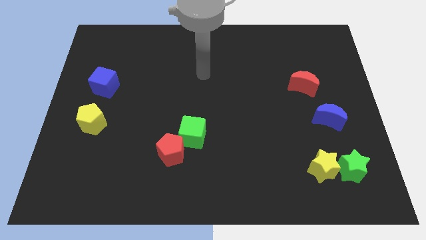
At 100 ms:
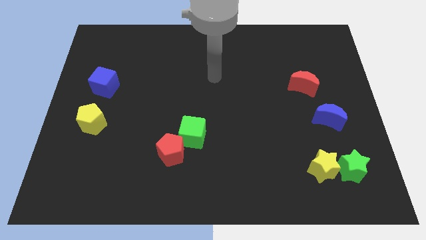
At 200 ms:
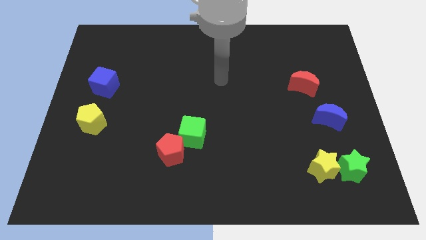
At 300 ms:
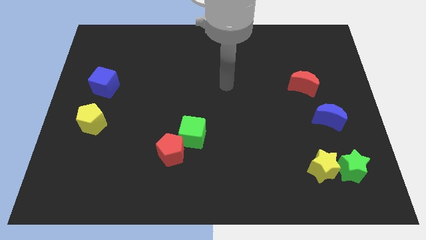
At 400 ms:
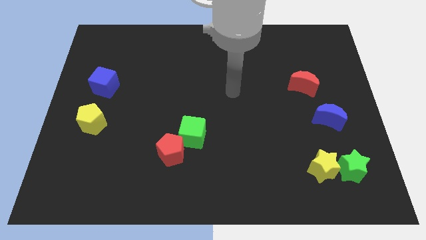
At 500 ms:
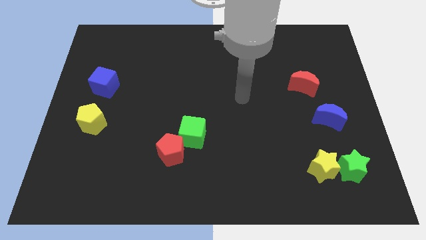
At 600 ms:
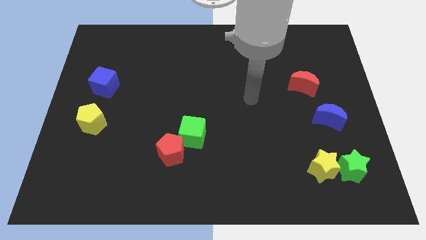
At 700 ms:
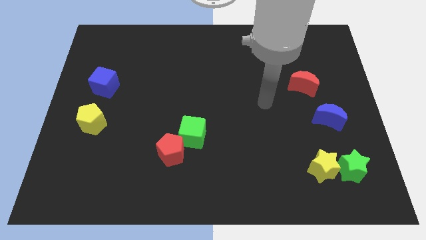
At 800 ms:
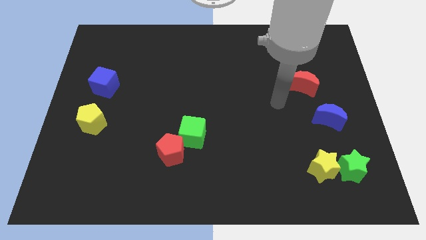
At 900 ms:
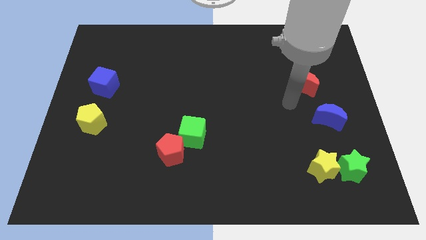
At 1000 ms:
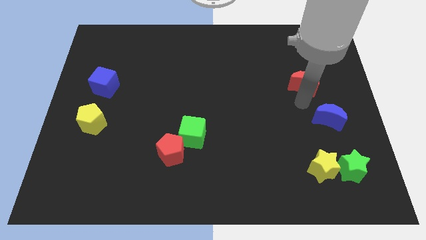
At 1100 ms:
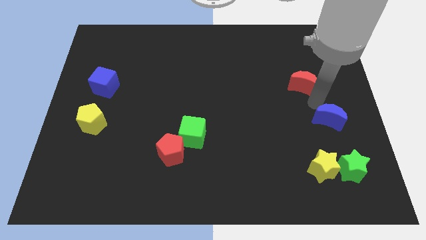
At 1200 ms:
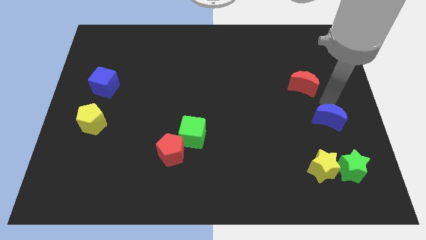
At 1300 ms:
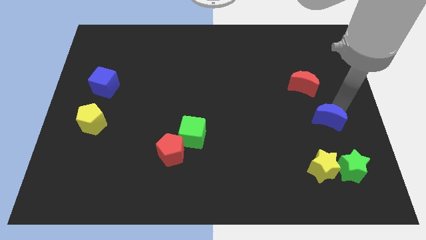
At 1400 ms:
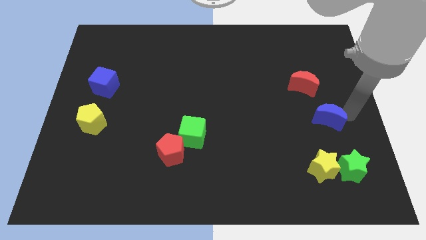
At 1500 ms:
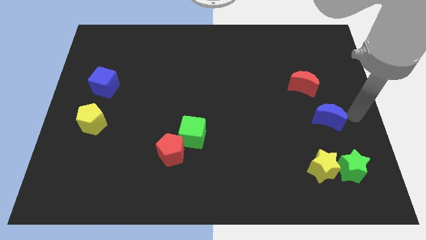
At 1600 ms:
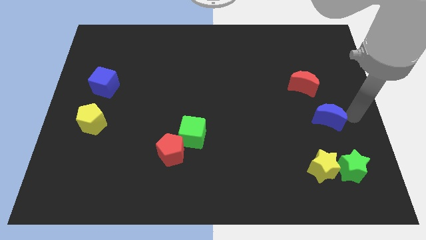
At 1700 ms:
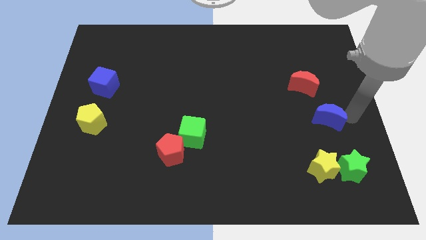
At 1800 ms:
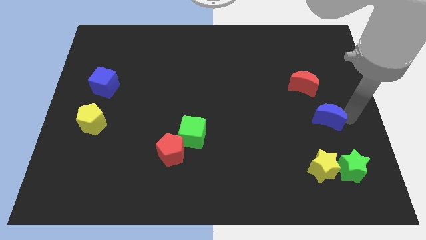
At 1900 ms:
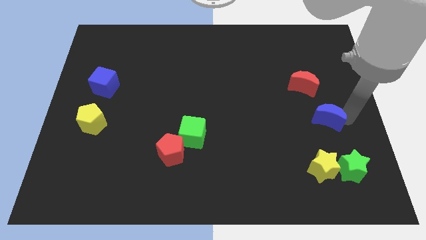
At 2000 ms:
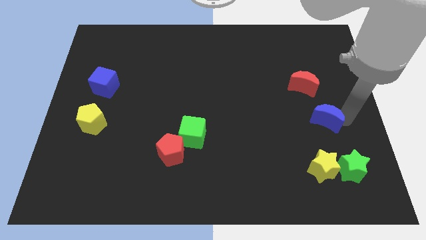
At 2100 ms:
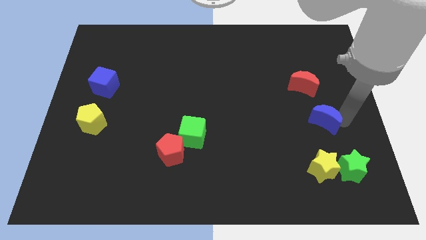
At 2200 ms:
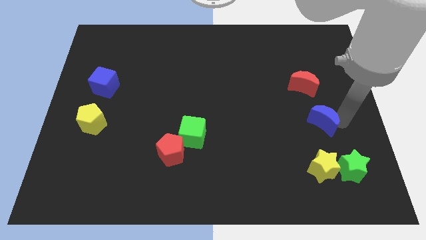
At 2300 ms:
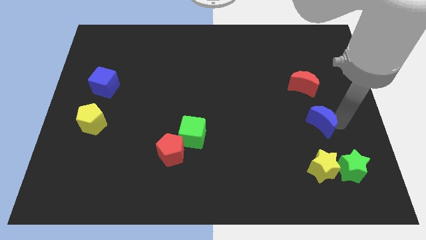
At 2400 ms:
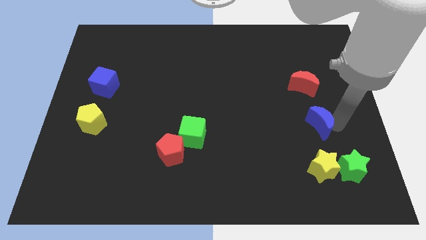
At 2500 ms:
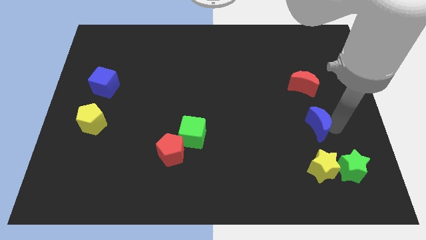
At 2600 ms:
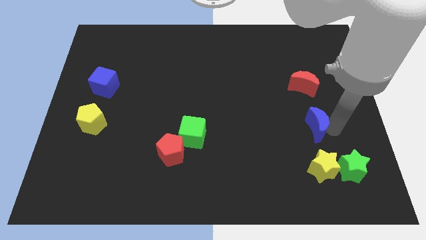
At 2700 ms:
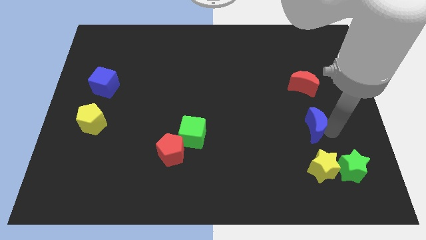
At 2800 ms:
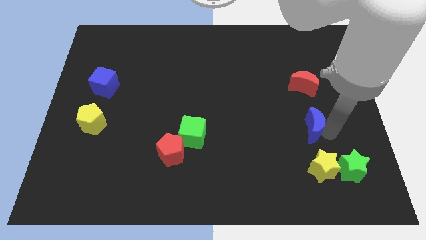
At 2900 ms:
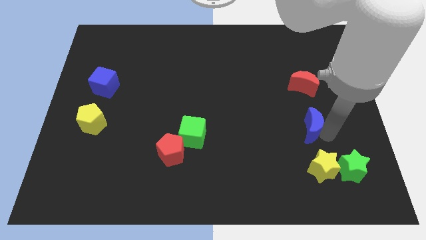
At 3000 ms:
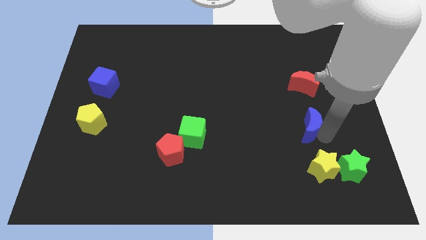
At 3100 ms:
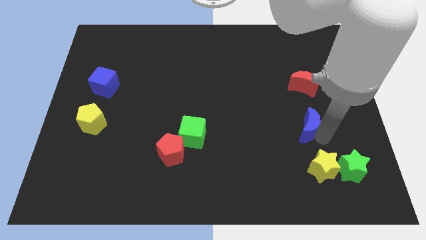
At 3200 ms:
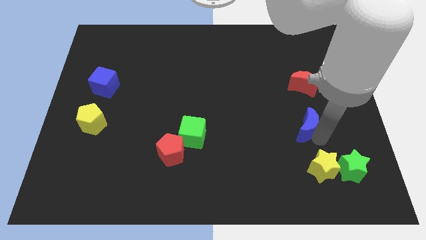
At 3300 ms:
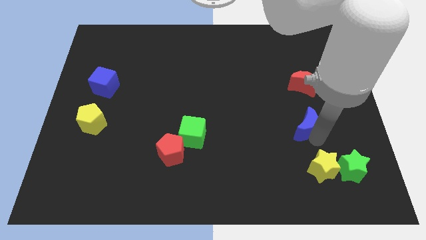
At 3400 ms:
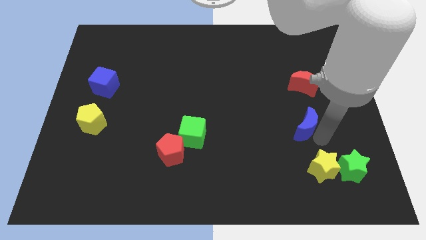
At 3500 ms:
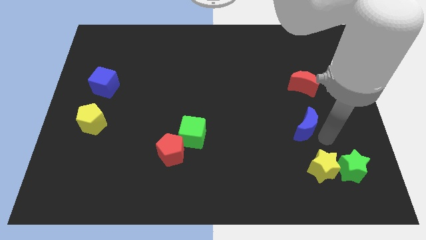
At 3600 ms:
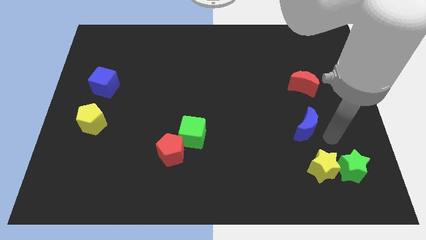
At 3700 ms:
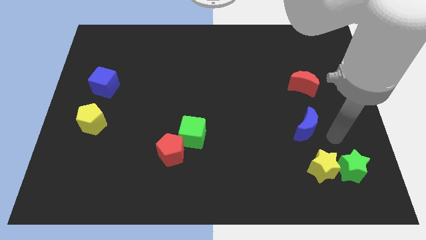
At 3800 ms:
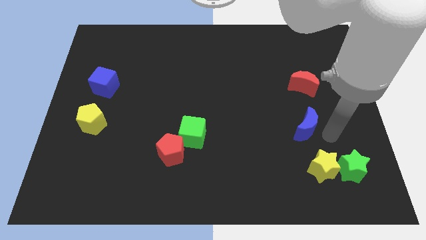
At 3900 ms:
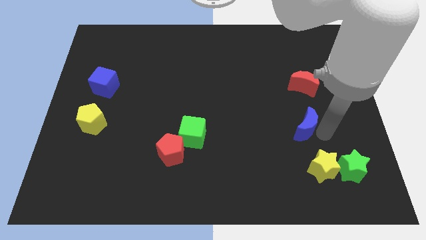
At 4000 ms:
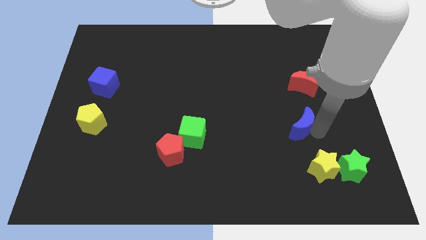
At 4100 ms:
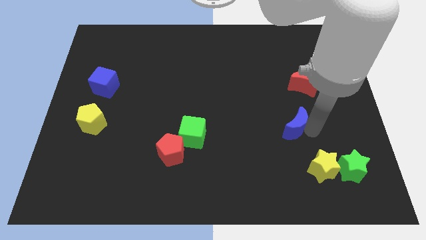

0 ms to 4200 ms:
push the blue moon a little bit to the left

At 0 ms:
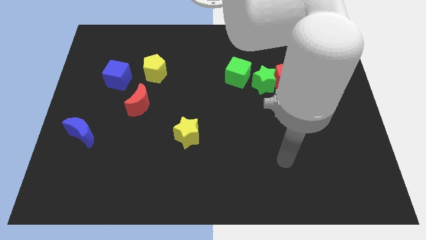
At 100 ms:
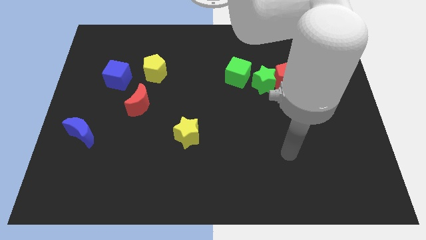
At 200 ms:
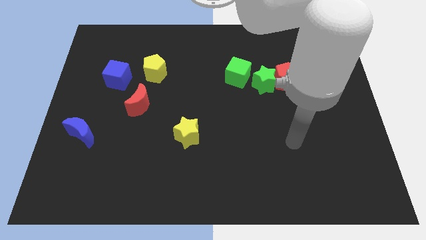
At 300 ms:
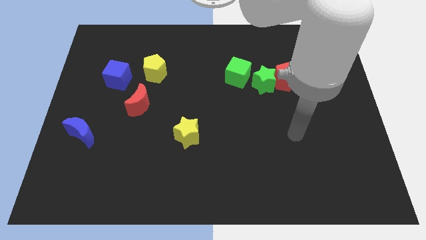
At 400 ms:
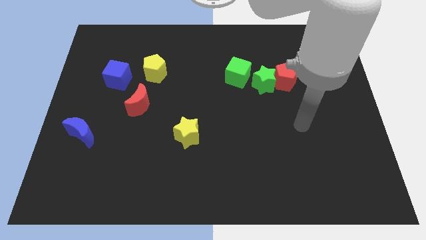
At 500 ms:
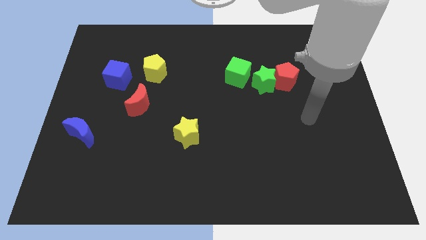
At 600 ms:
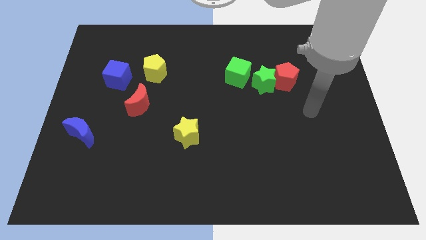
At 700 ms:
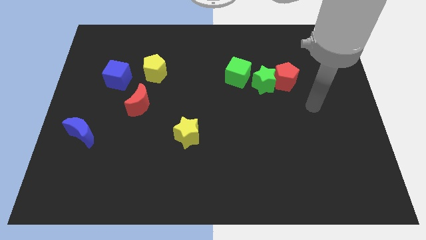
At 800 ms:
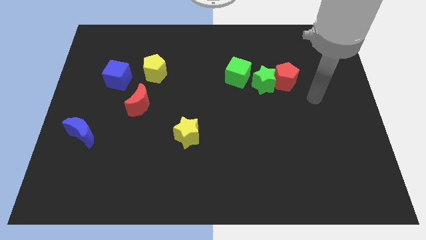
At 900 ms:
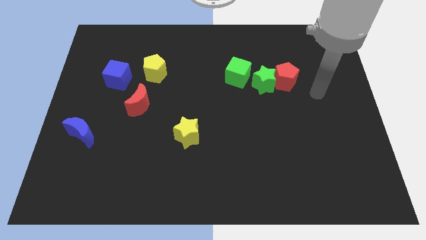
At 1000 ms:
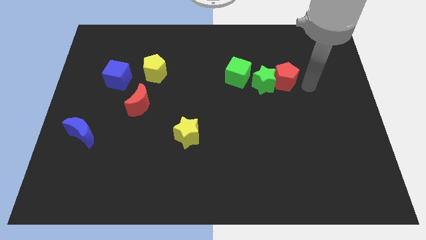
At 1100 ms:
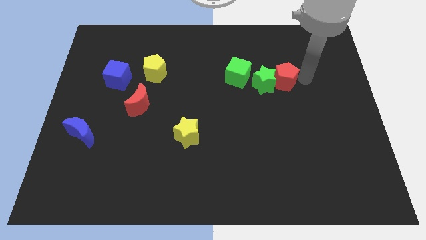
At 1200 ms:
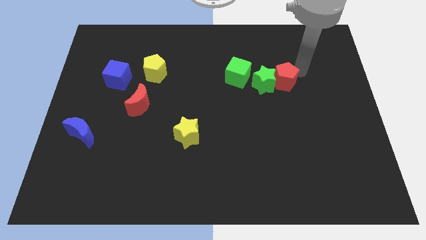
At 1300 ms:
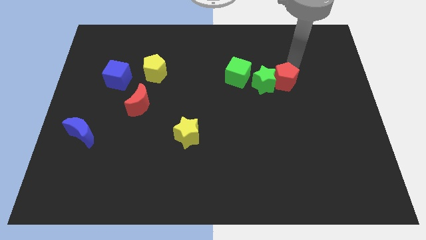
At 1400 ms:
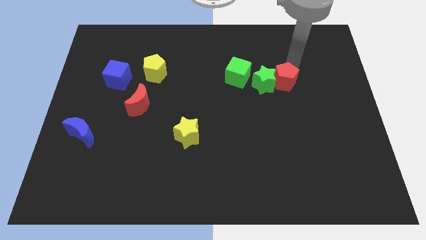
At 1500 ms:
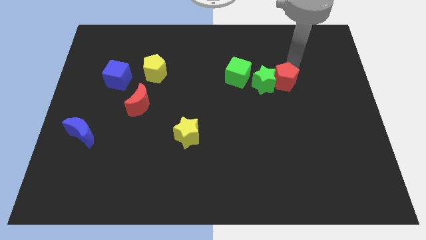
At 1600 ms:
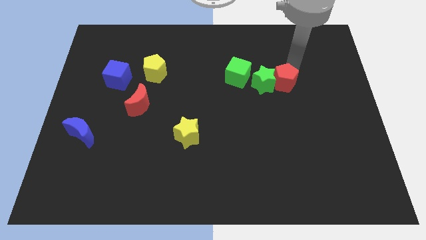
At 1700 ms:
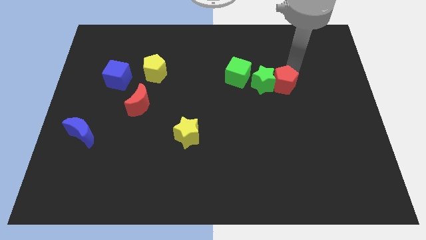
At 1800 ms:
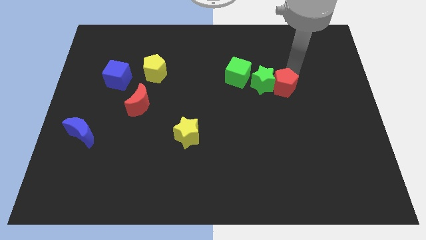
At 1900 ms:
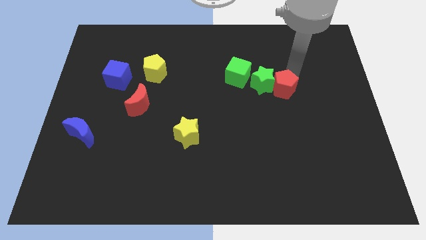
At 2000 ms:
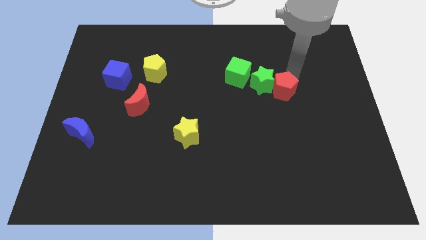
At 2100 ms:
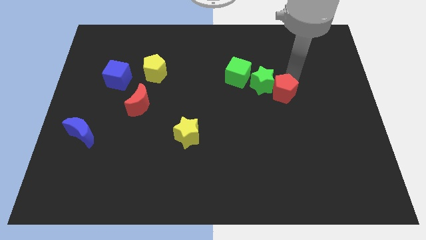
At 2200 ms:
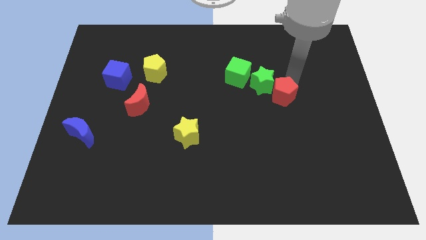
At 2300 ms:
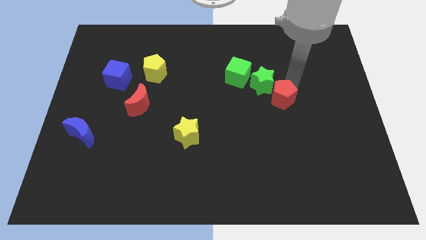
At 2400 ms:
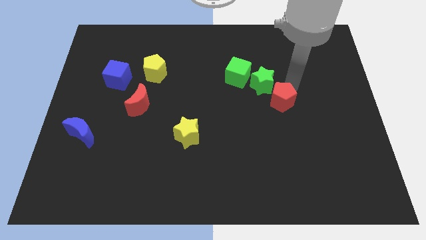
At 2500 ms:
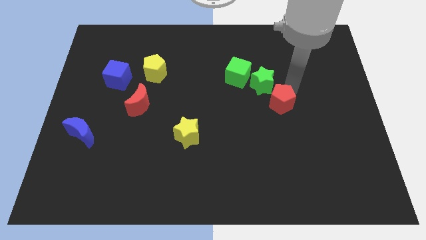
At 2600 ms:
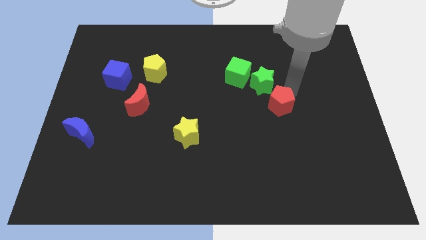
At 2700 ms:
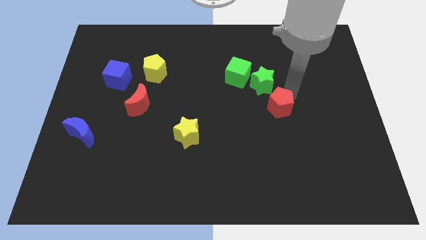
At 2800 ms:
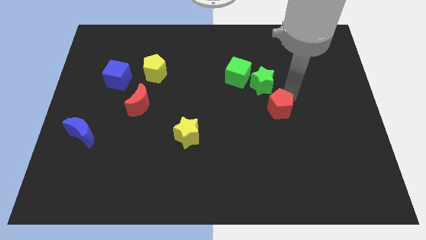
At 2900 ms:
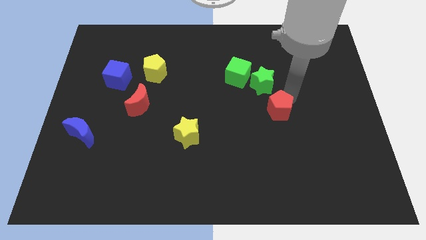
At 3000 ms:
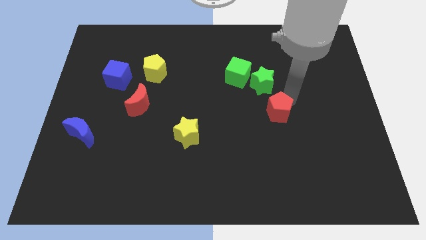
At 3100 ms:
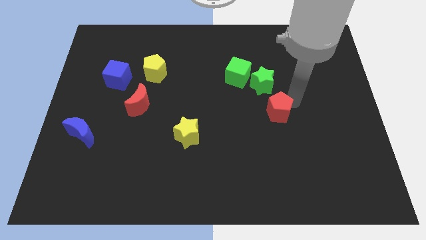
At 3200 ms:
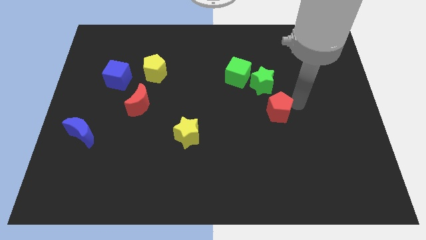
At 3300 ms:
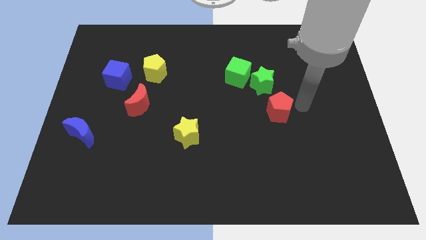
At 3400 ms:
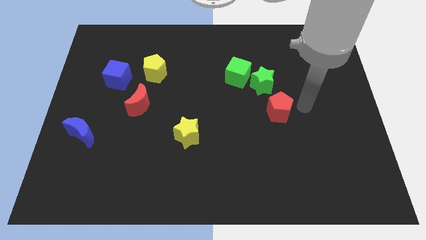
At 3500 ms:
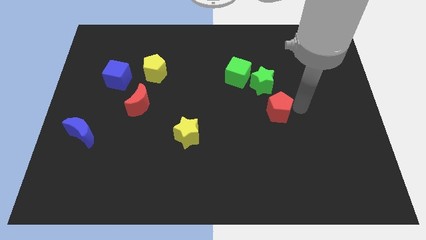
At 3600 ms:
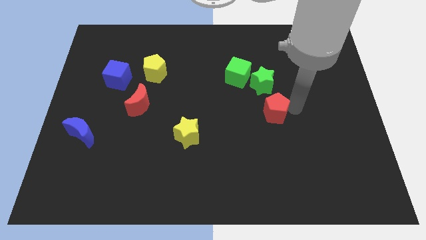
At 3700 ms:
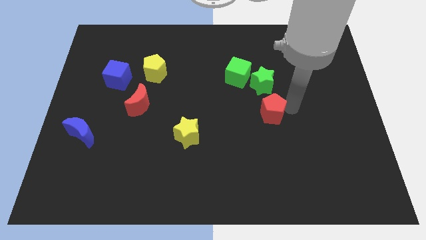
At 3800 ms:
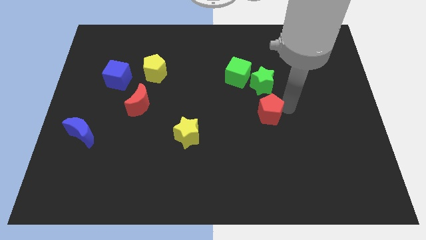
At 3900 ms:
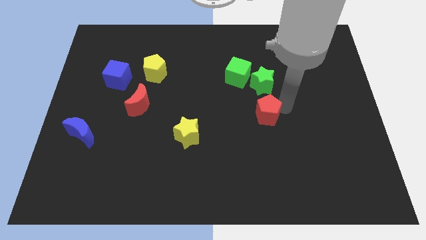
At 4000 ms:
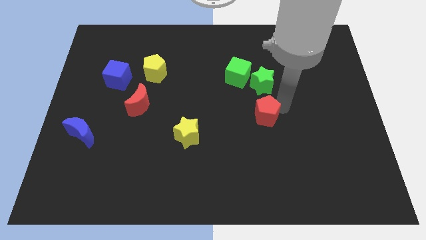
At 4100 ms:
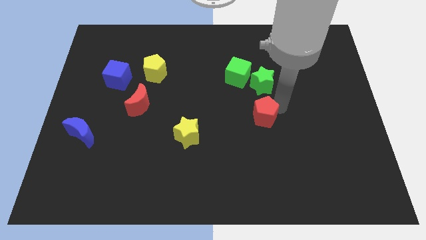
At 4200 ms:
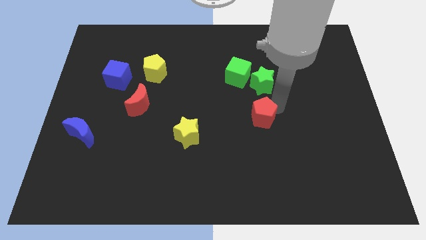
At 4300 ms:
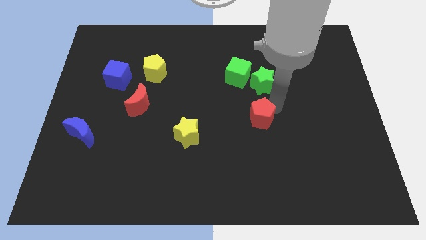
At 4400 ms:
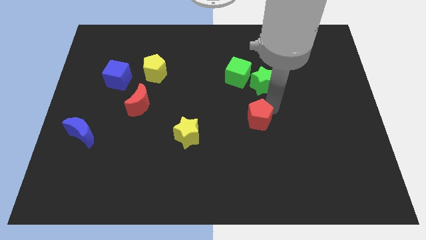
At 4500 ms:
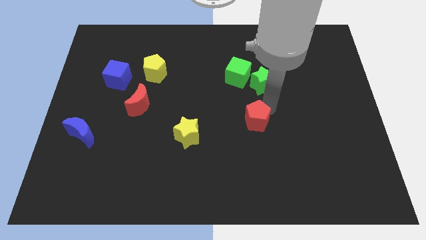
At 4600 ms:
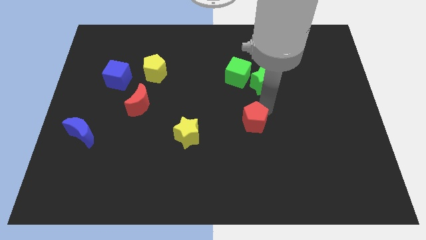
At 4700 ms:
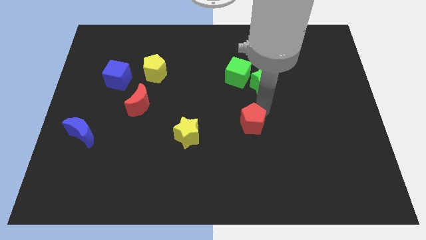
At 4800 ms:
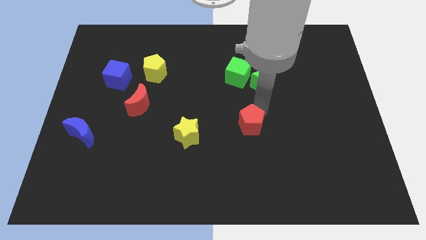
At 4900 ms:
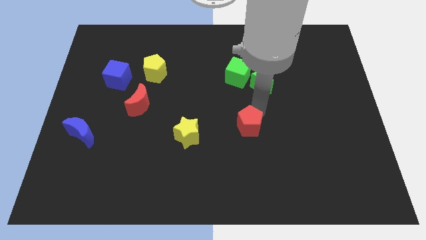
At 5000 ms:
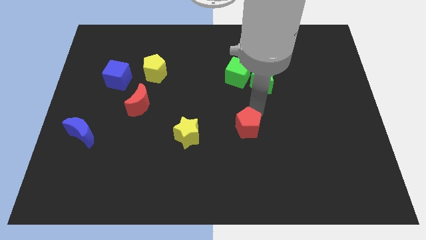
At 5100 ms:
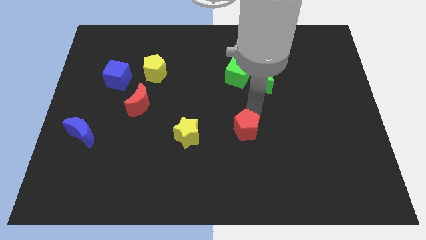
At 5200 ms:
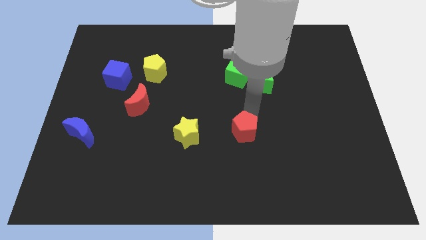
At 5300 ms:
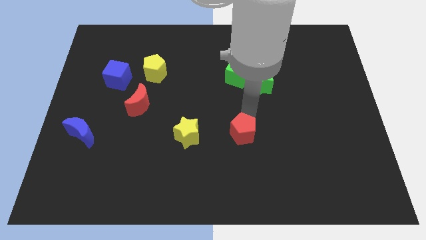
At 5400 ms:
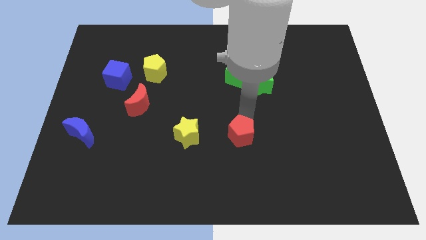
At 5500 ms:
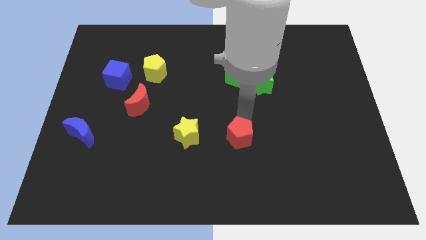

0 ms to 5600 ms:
move the red pentagon down and left
